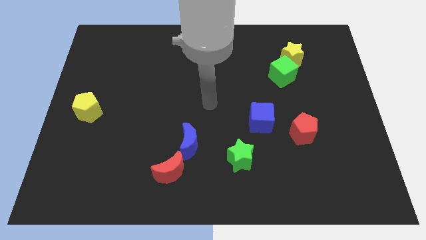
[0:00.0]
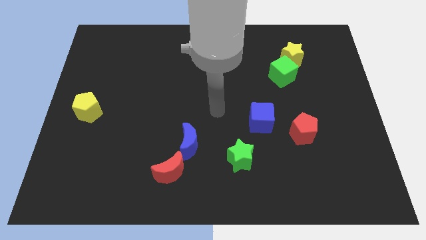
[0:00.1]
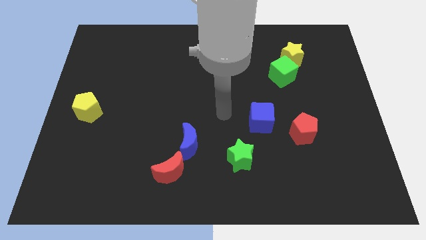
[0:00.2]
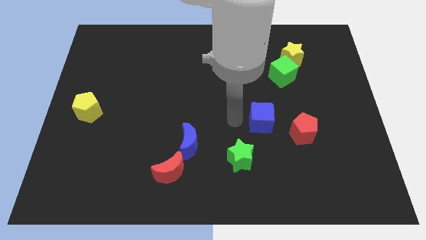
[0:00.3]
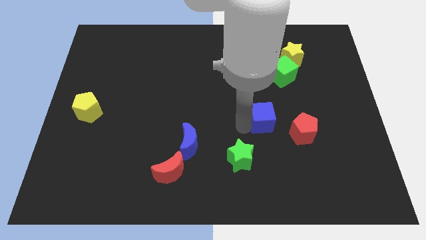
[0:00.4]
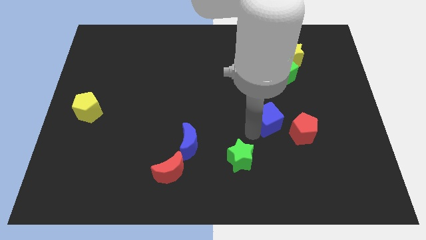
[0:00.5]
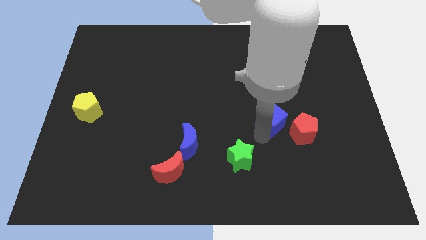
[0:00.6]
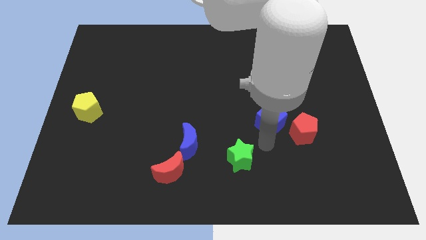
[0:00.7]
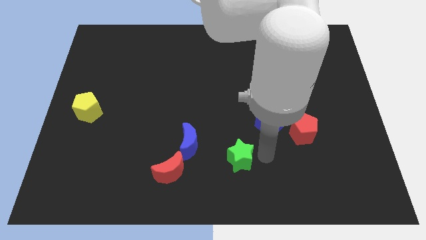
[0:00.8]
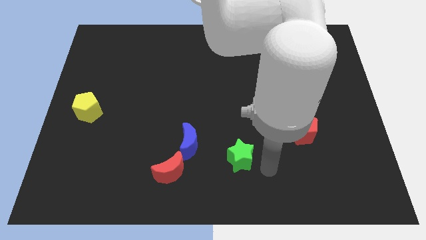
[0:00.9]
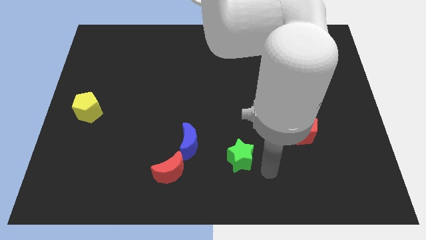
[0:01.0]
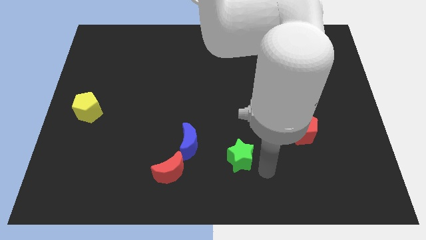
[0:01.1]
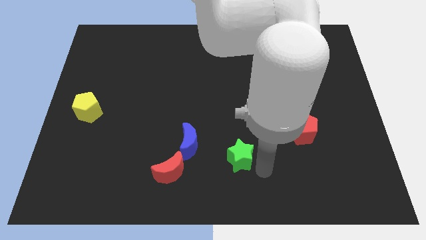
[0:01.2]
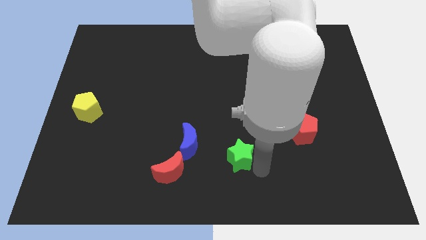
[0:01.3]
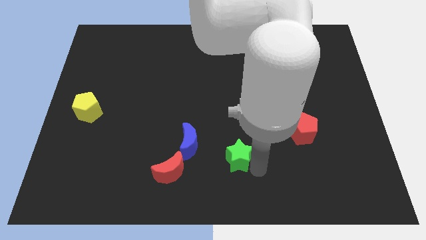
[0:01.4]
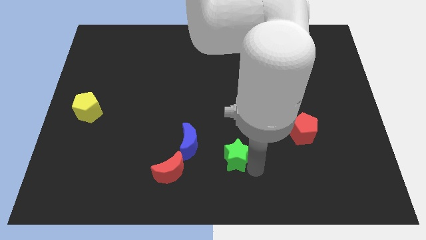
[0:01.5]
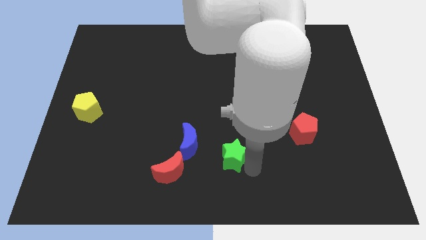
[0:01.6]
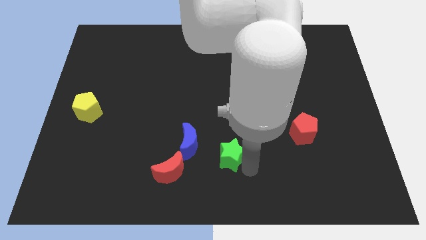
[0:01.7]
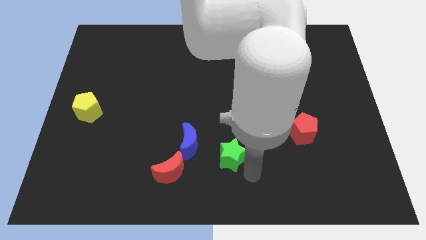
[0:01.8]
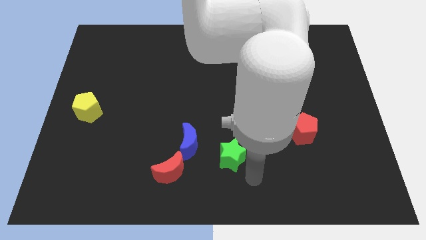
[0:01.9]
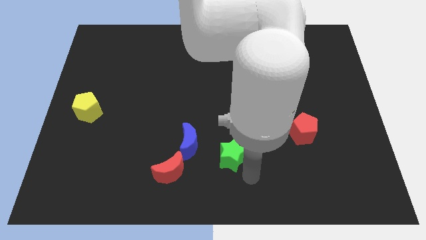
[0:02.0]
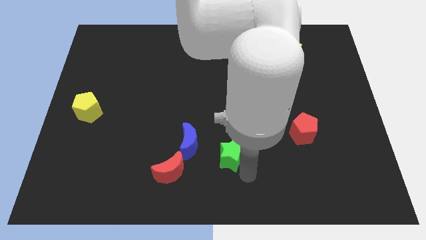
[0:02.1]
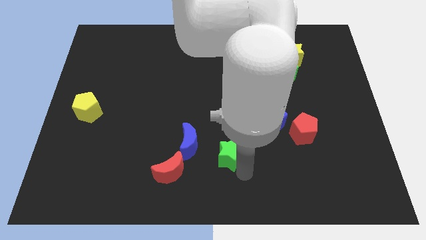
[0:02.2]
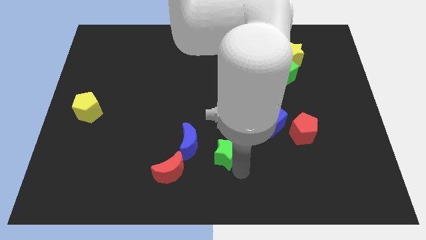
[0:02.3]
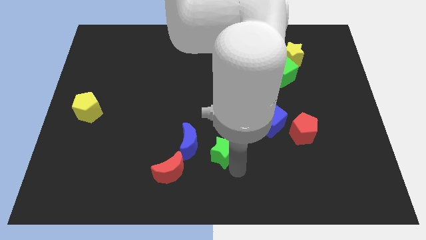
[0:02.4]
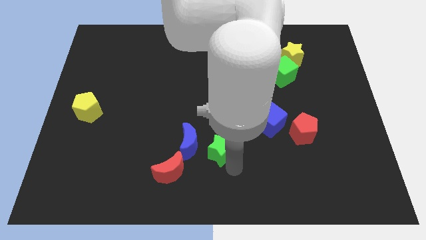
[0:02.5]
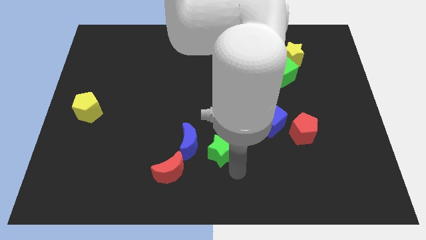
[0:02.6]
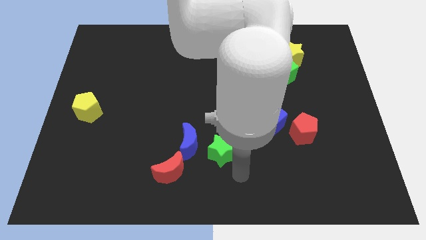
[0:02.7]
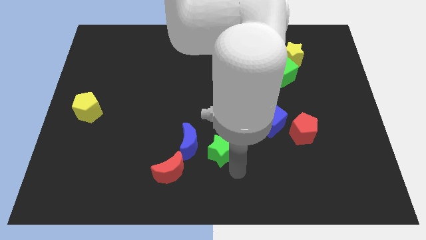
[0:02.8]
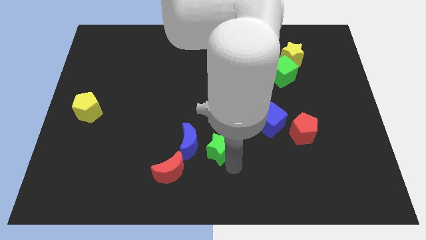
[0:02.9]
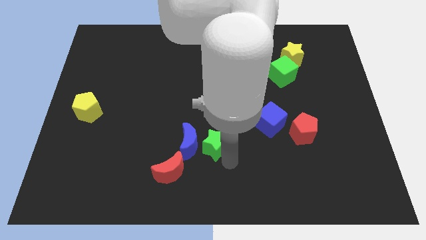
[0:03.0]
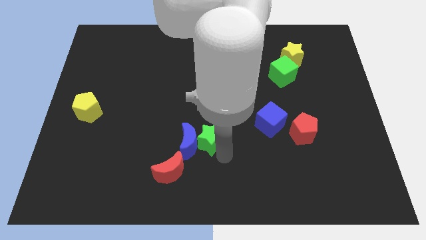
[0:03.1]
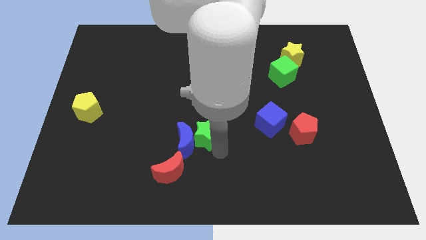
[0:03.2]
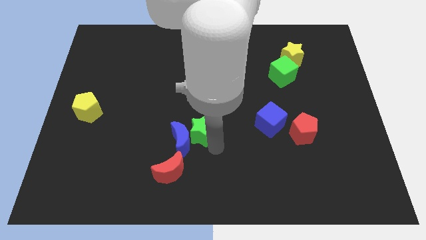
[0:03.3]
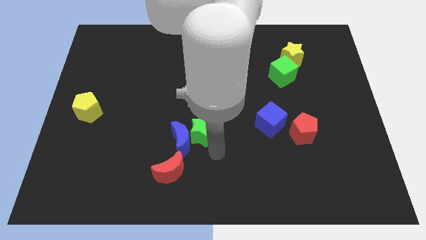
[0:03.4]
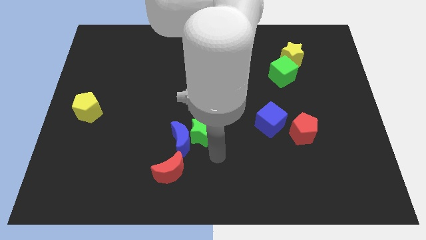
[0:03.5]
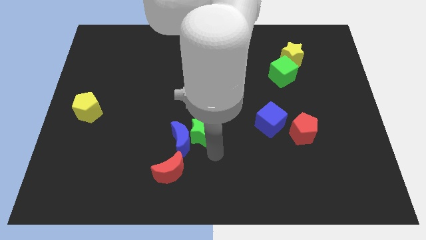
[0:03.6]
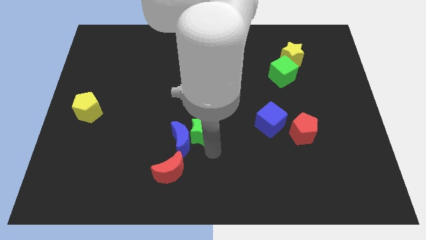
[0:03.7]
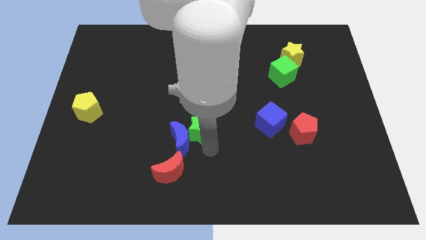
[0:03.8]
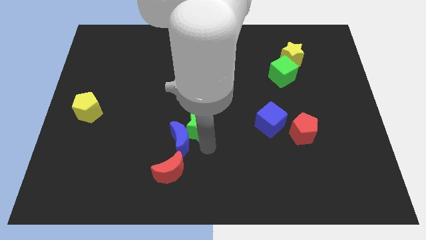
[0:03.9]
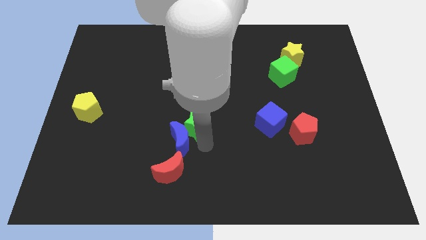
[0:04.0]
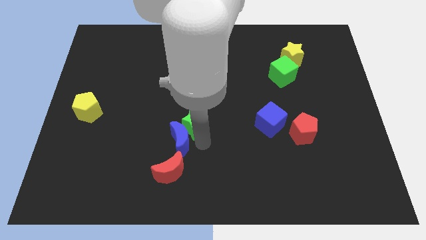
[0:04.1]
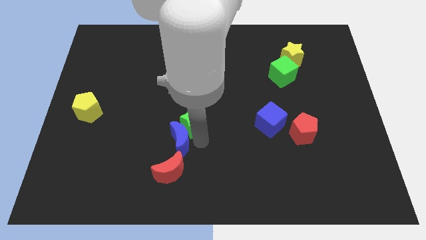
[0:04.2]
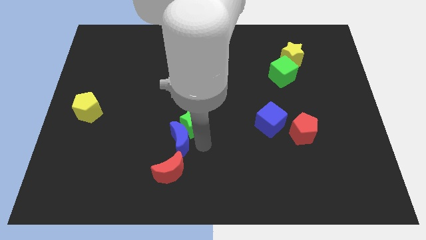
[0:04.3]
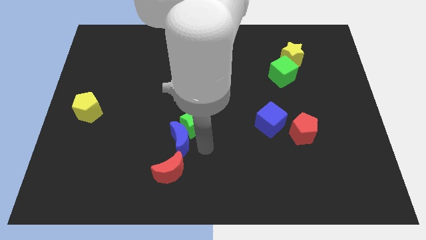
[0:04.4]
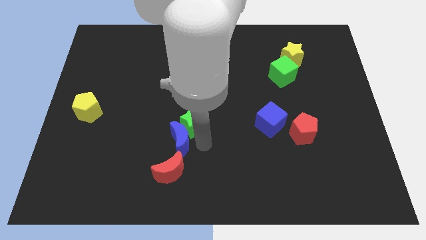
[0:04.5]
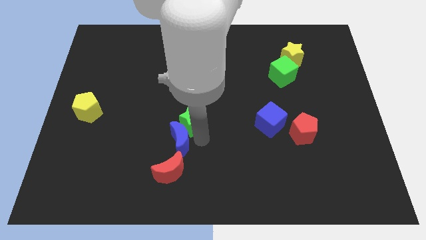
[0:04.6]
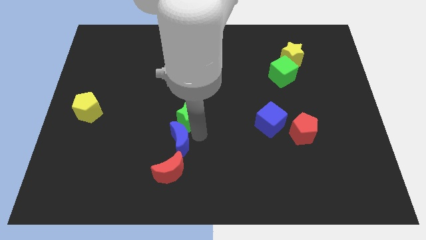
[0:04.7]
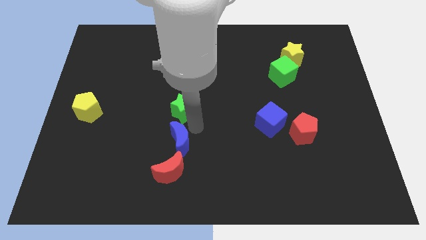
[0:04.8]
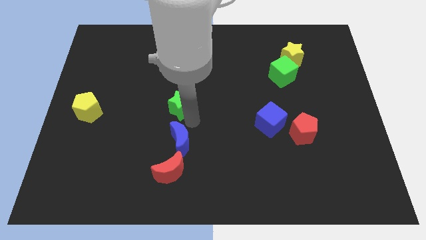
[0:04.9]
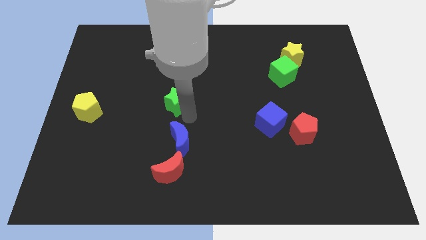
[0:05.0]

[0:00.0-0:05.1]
push the green star diagonally upwards and left

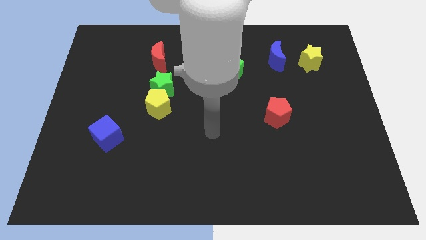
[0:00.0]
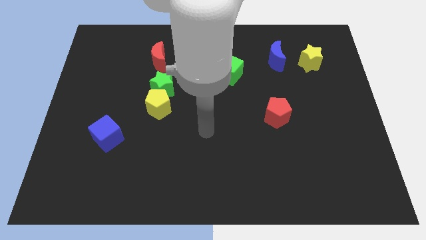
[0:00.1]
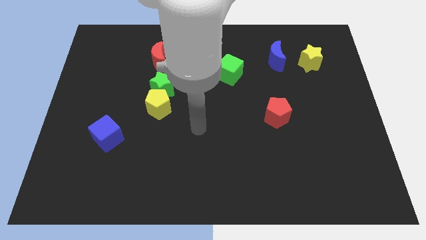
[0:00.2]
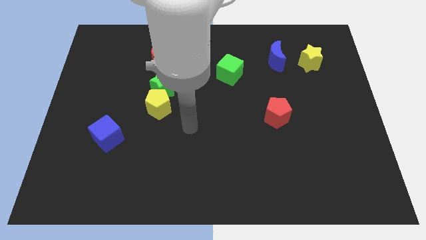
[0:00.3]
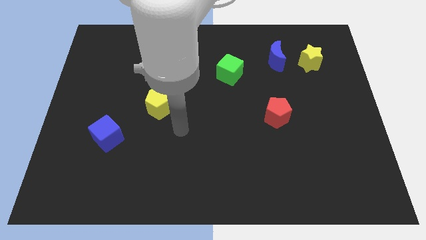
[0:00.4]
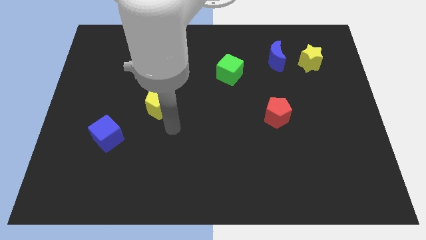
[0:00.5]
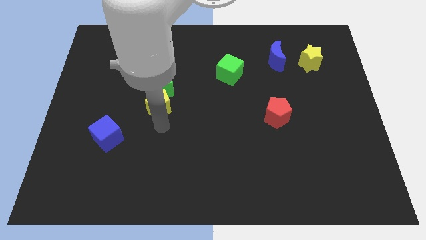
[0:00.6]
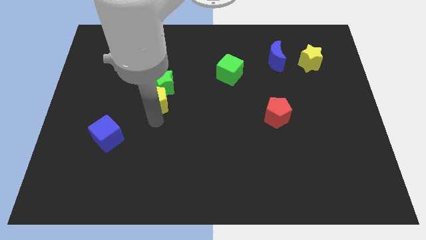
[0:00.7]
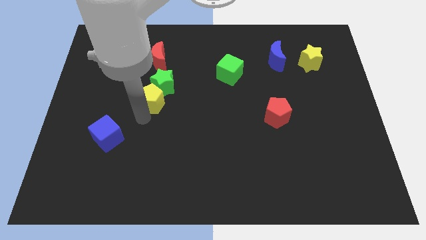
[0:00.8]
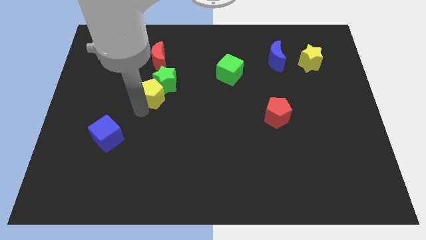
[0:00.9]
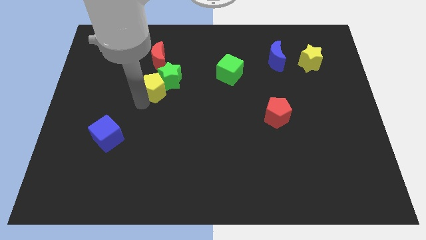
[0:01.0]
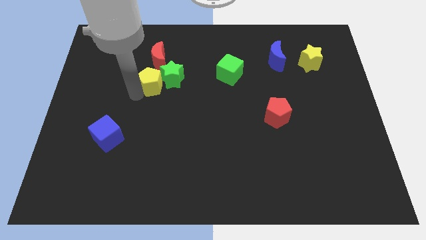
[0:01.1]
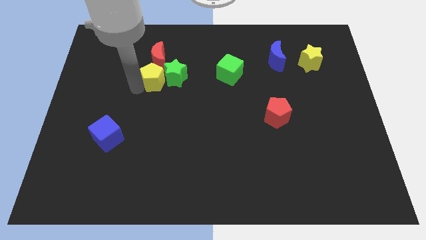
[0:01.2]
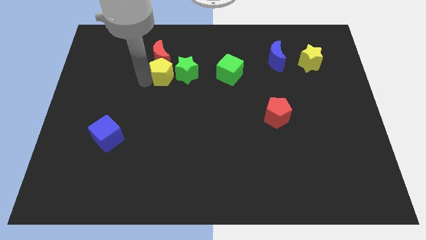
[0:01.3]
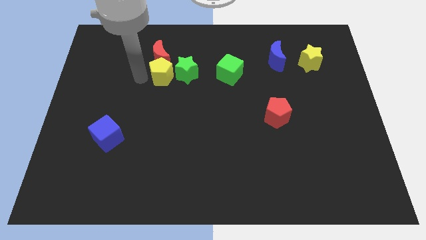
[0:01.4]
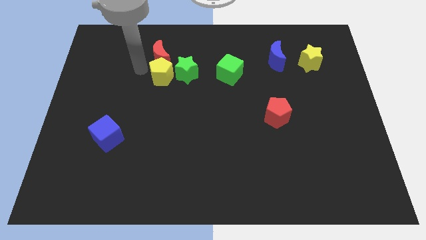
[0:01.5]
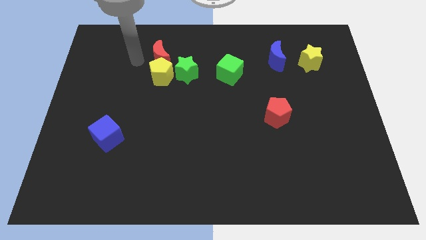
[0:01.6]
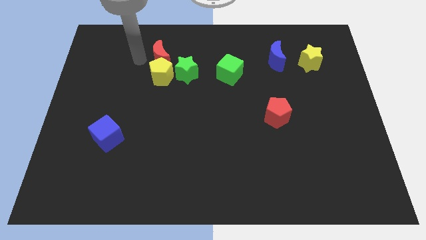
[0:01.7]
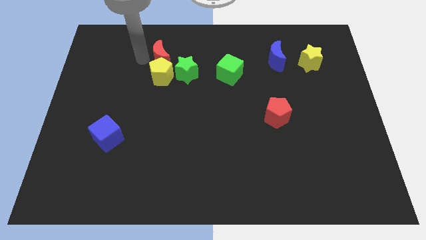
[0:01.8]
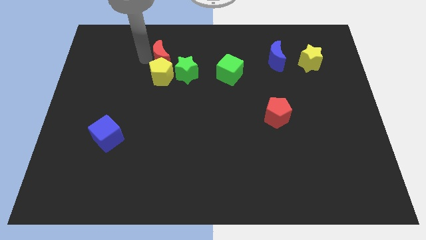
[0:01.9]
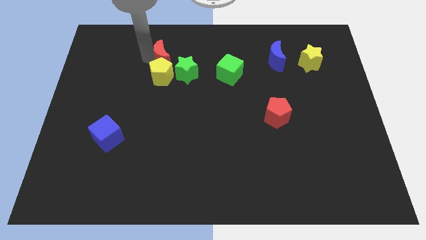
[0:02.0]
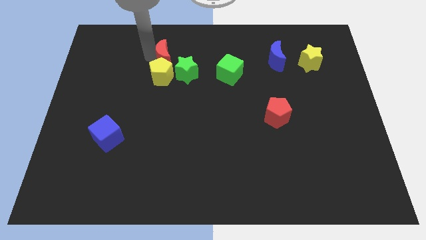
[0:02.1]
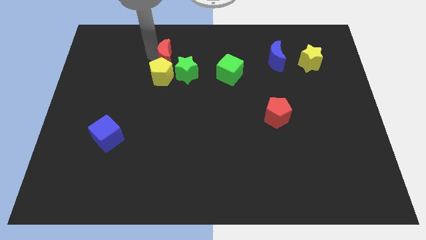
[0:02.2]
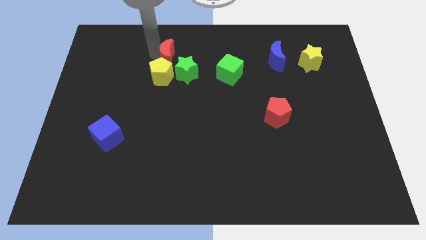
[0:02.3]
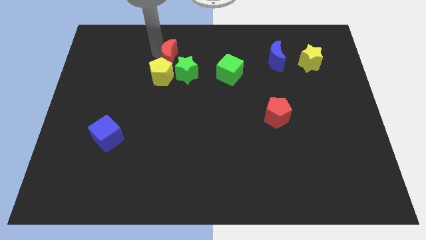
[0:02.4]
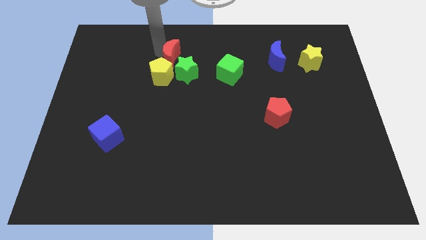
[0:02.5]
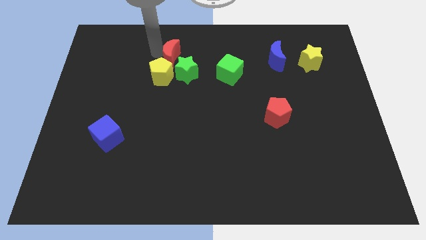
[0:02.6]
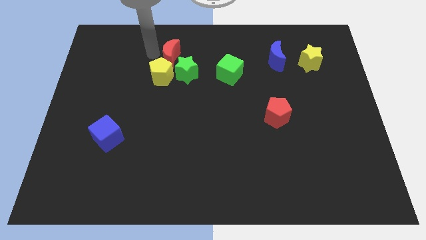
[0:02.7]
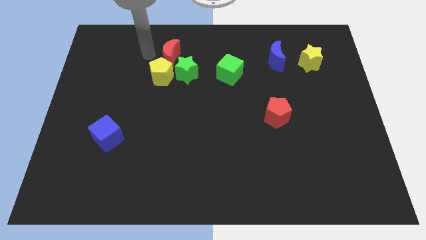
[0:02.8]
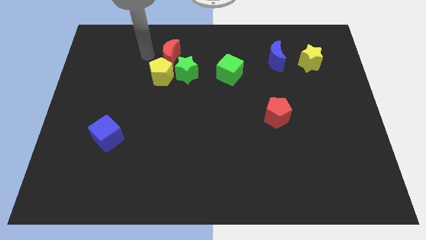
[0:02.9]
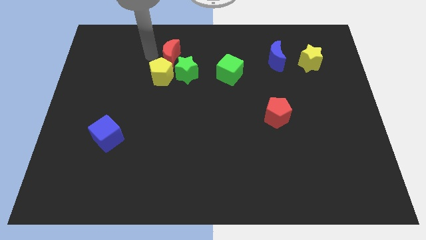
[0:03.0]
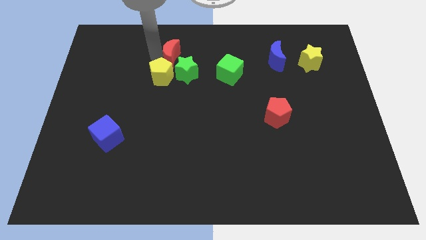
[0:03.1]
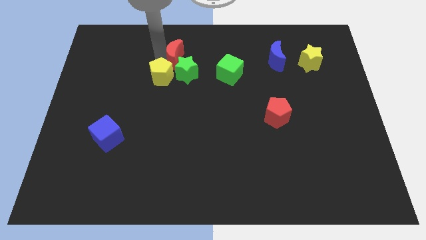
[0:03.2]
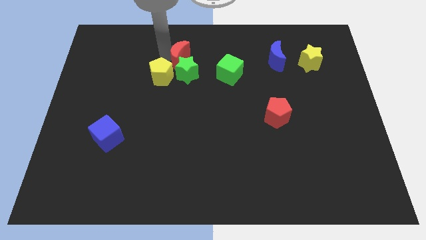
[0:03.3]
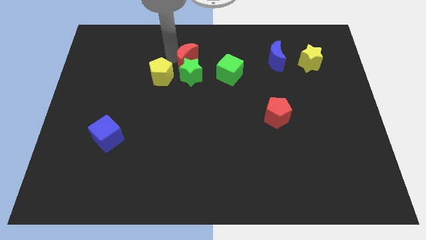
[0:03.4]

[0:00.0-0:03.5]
slightly slide the red moon right
